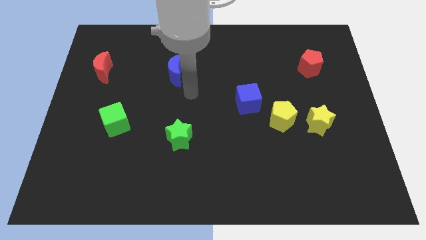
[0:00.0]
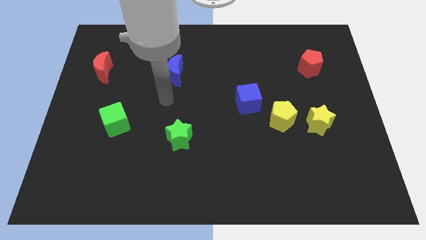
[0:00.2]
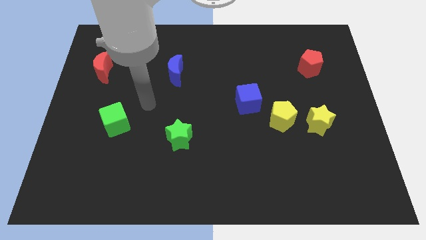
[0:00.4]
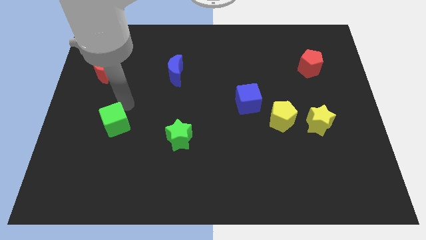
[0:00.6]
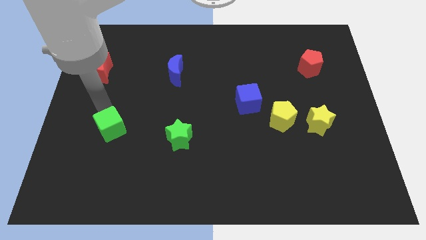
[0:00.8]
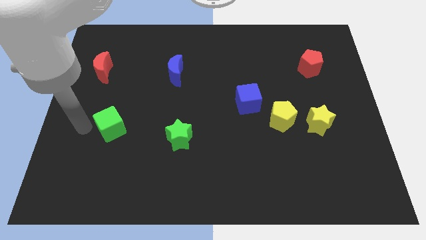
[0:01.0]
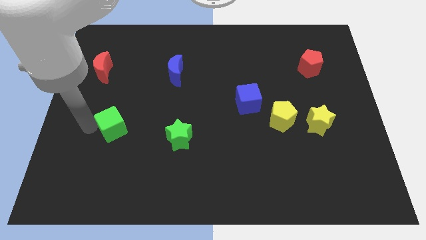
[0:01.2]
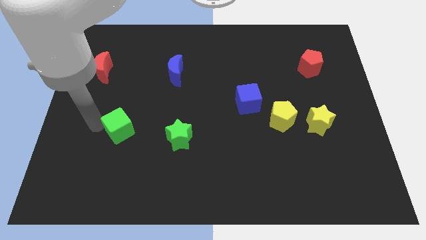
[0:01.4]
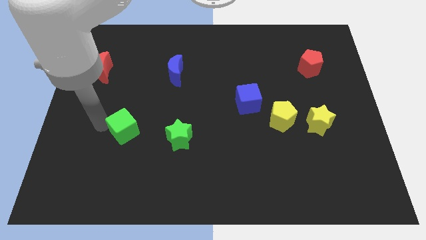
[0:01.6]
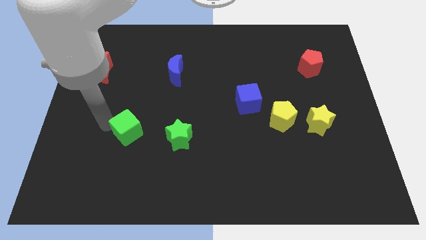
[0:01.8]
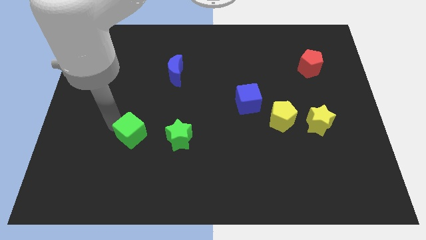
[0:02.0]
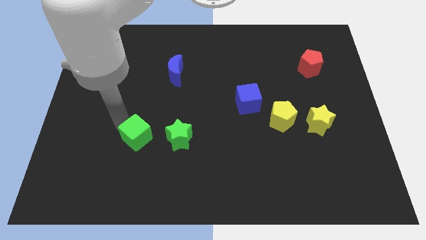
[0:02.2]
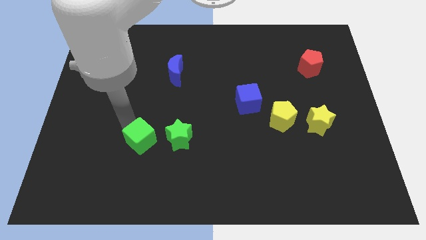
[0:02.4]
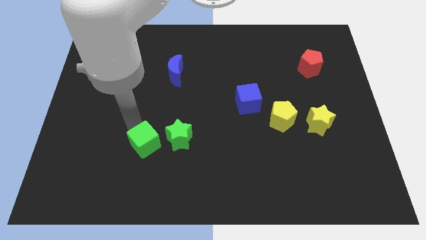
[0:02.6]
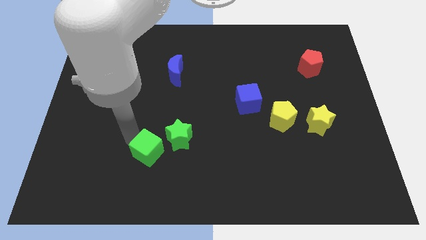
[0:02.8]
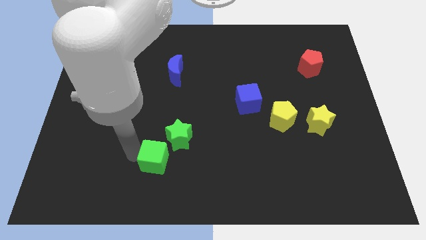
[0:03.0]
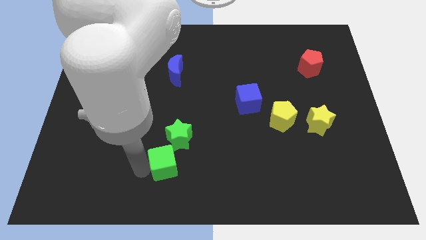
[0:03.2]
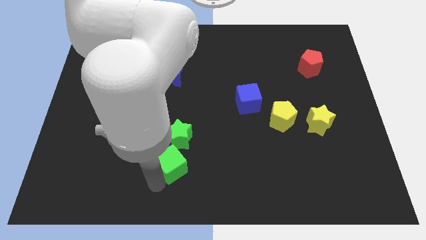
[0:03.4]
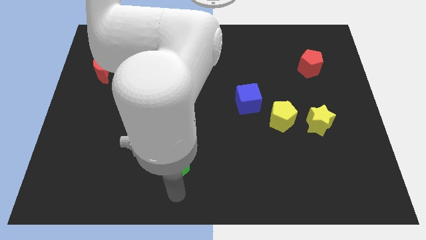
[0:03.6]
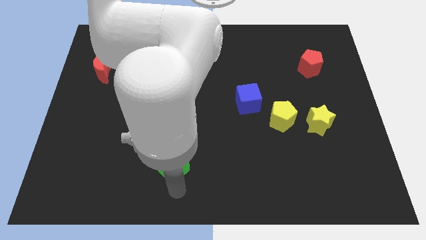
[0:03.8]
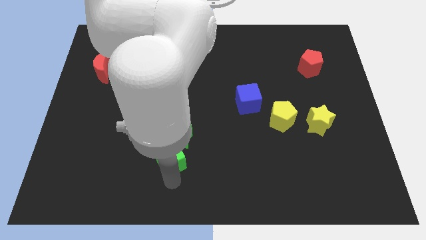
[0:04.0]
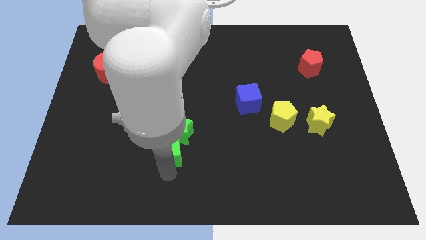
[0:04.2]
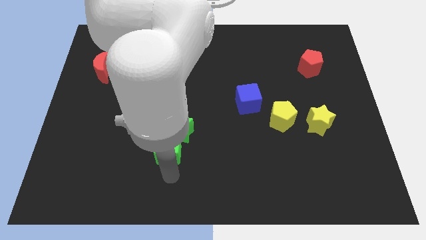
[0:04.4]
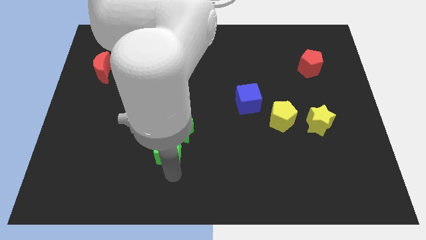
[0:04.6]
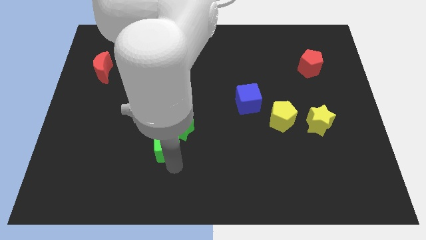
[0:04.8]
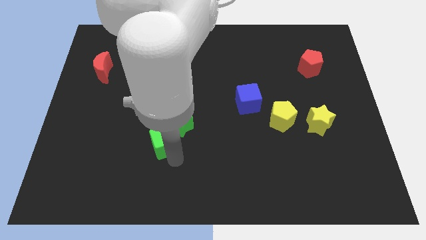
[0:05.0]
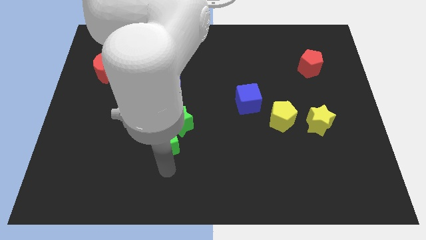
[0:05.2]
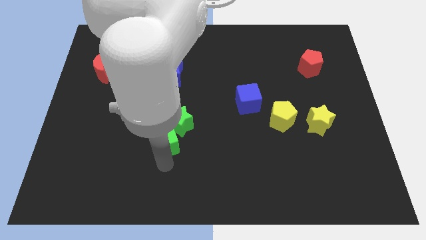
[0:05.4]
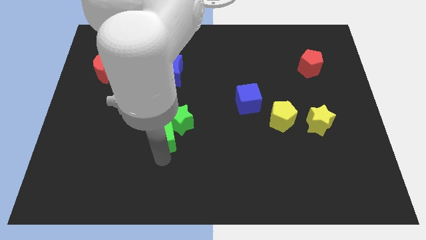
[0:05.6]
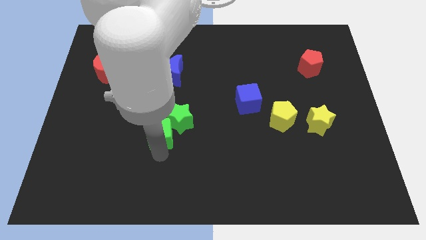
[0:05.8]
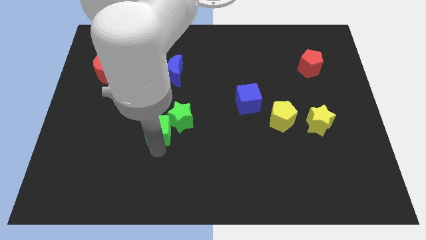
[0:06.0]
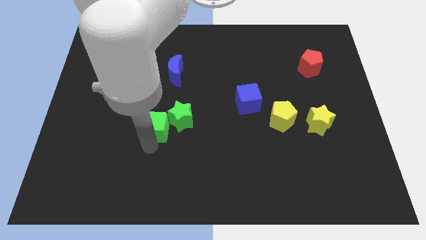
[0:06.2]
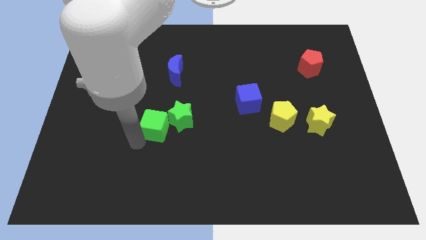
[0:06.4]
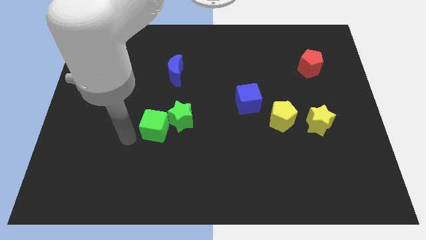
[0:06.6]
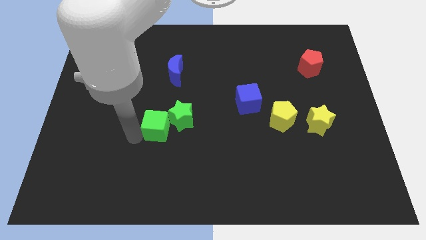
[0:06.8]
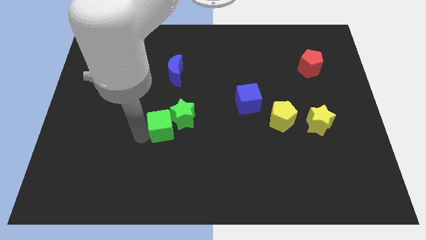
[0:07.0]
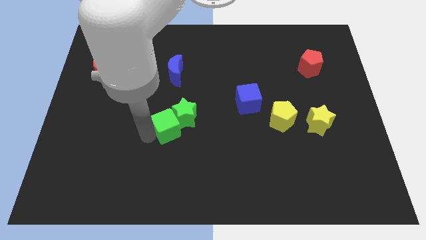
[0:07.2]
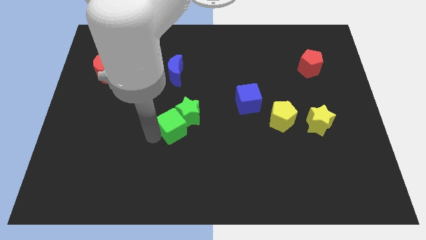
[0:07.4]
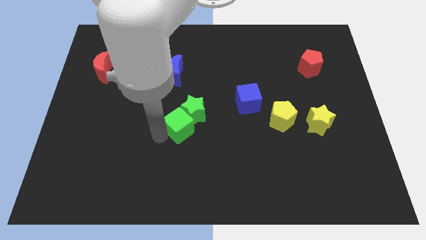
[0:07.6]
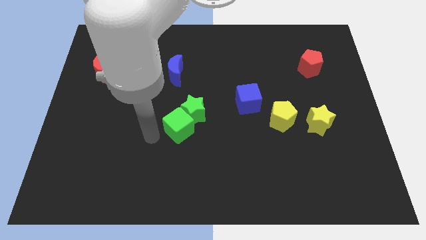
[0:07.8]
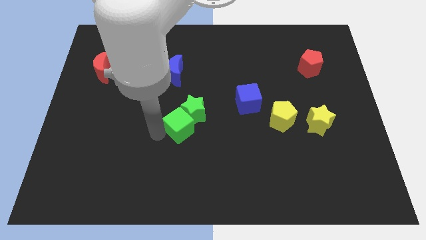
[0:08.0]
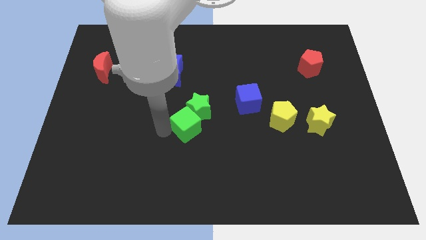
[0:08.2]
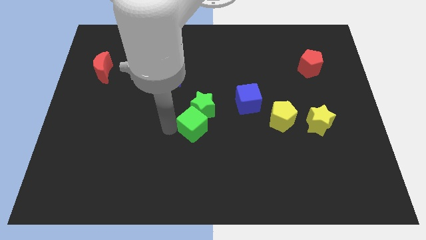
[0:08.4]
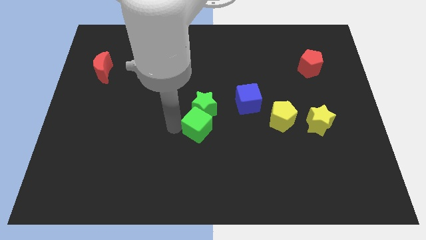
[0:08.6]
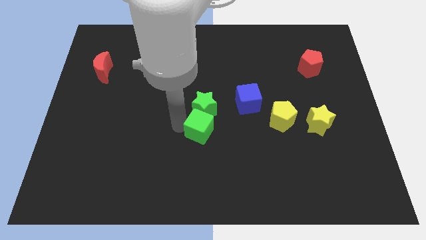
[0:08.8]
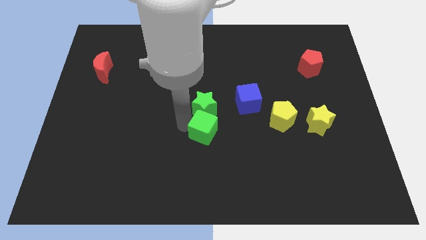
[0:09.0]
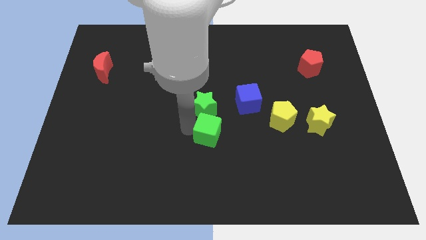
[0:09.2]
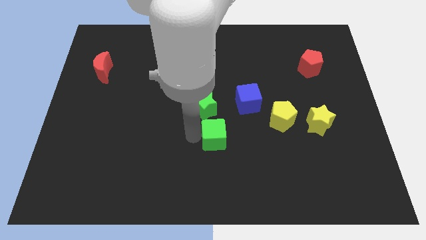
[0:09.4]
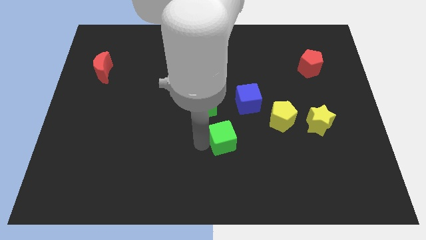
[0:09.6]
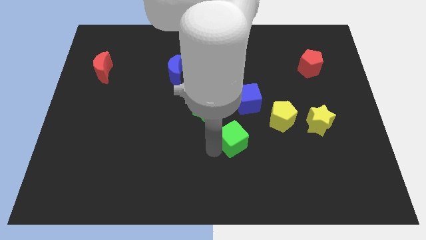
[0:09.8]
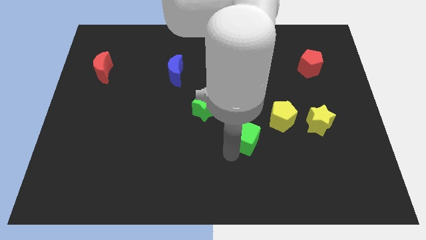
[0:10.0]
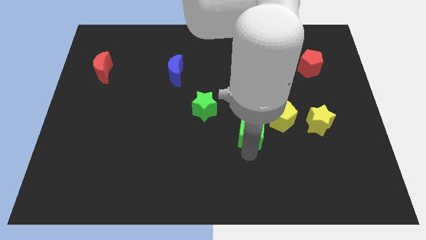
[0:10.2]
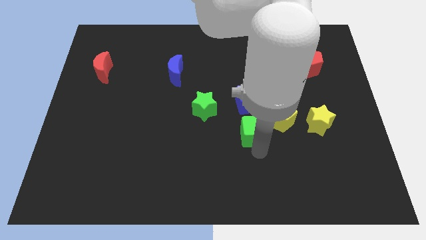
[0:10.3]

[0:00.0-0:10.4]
move the green cube to the left side of the yellow star

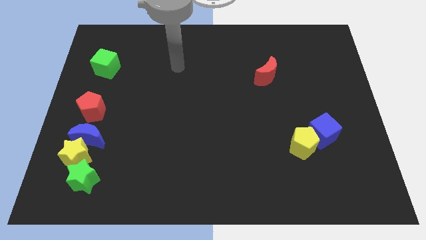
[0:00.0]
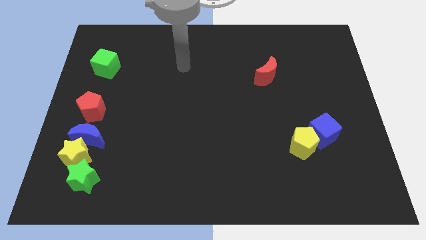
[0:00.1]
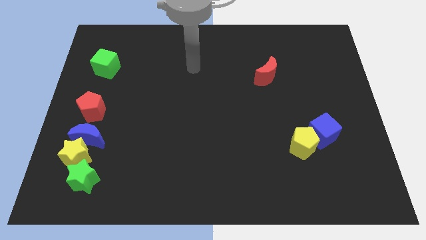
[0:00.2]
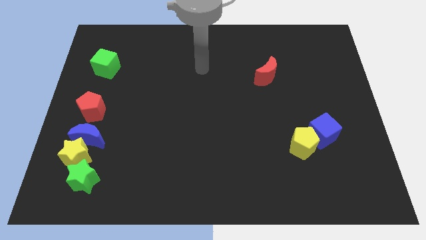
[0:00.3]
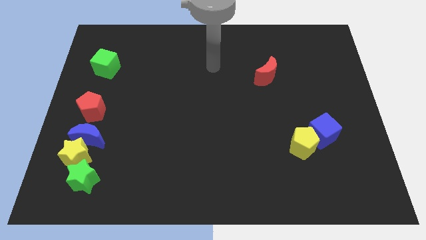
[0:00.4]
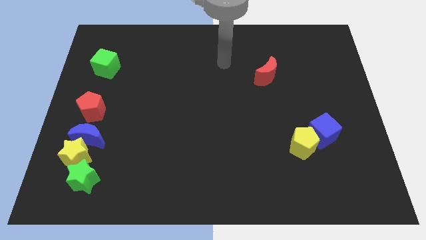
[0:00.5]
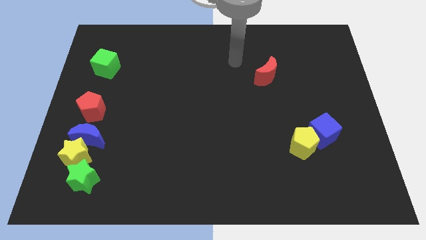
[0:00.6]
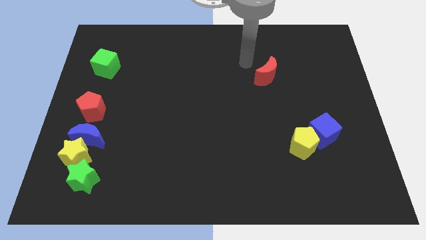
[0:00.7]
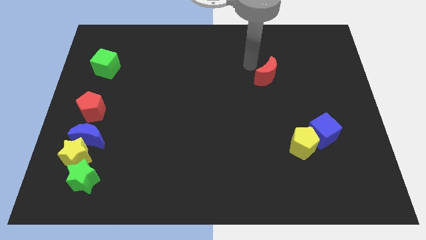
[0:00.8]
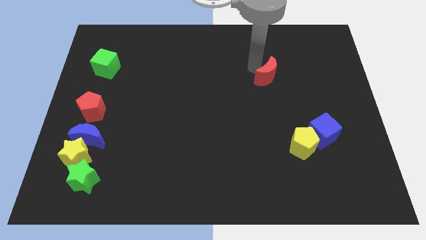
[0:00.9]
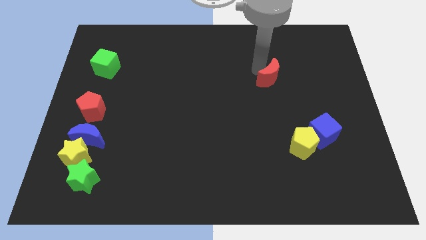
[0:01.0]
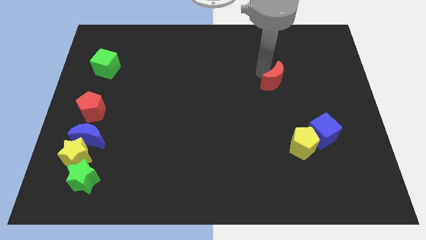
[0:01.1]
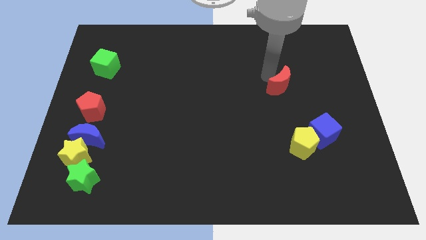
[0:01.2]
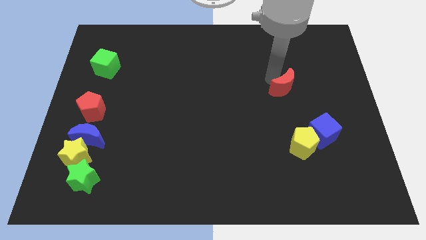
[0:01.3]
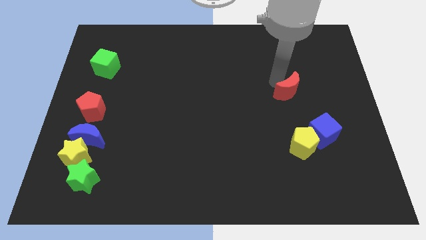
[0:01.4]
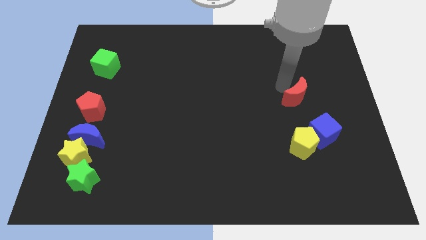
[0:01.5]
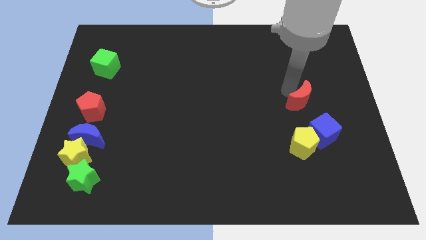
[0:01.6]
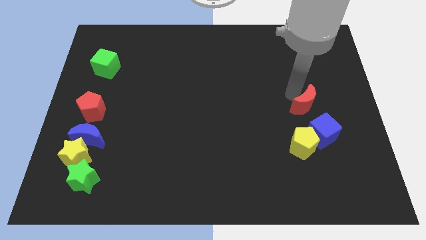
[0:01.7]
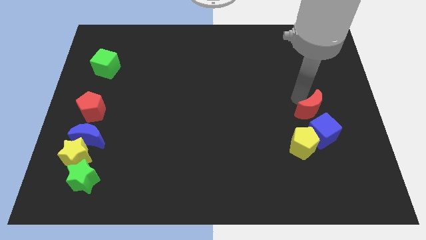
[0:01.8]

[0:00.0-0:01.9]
put the red moon to the top right side of the yellow pentagon
